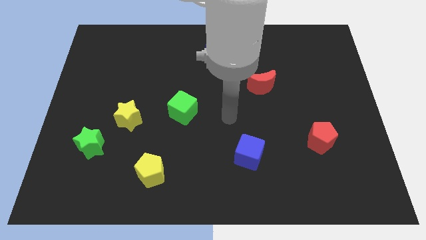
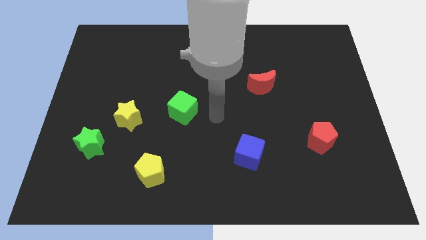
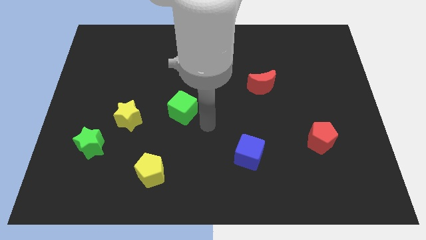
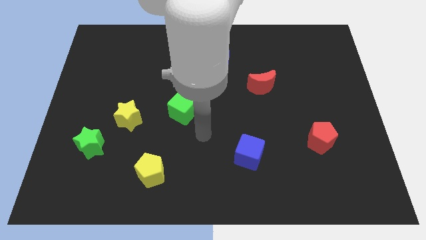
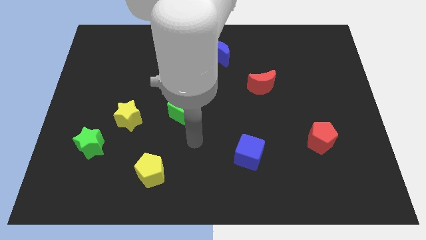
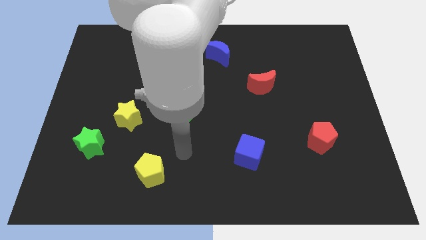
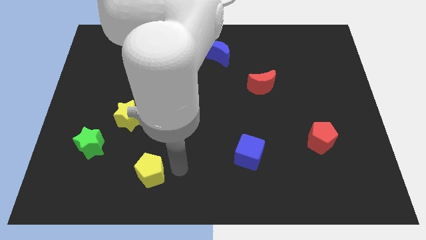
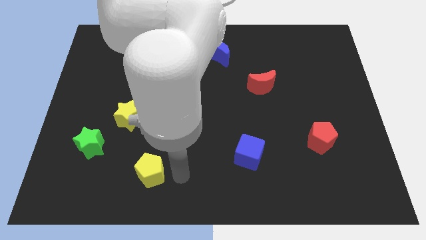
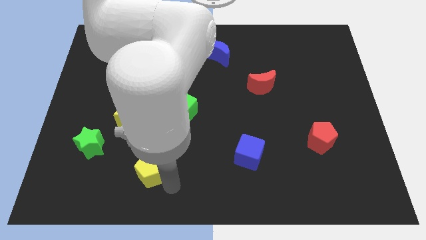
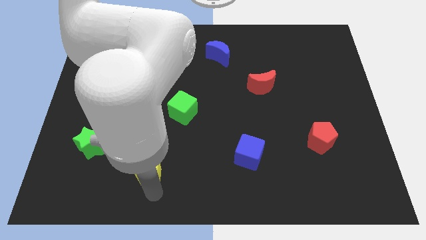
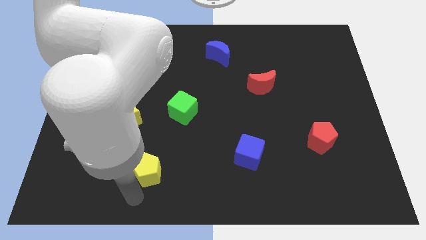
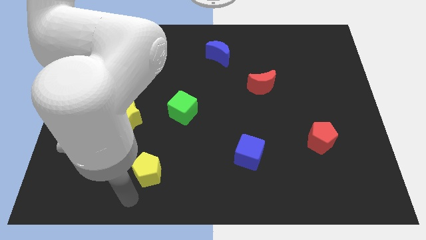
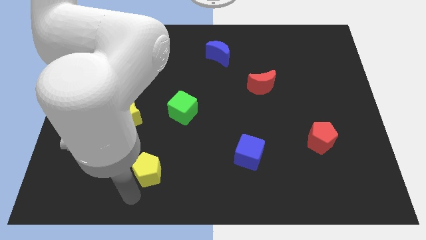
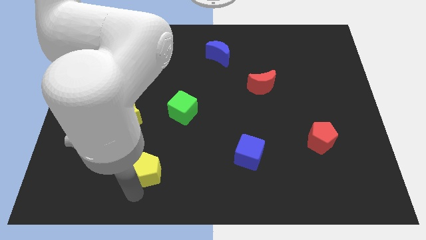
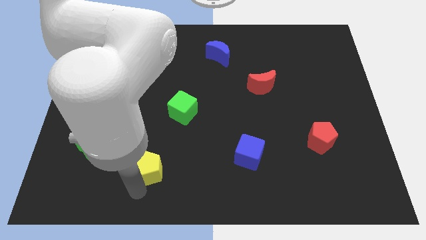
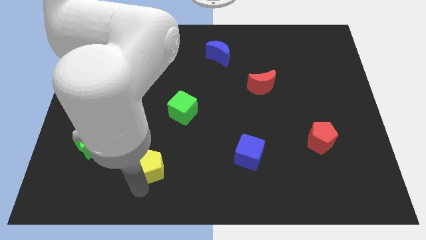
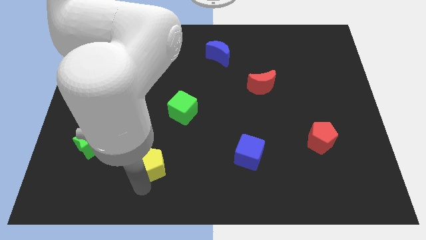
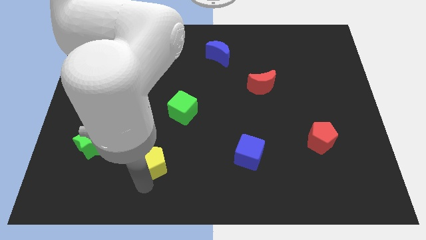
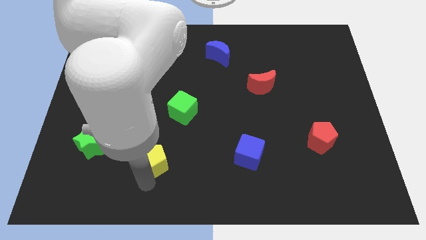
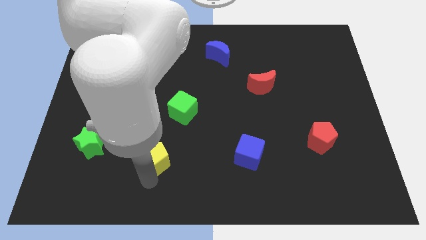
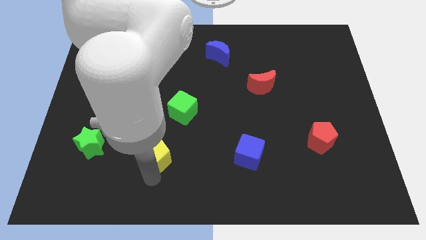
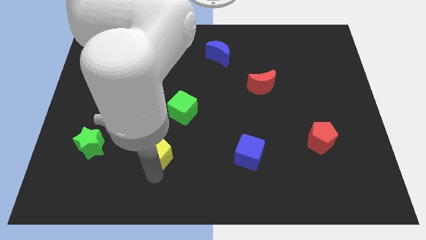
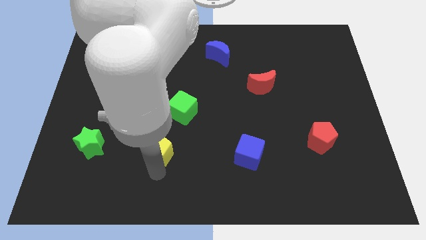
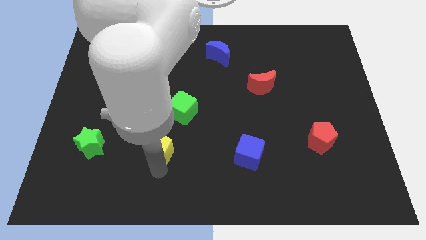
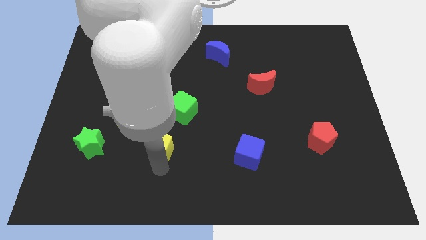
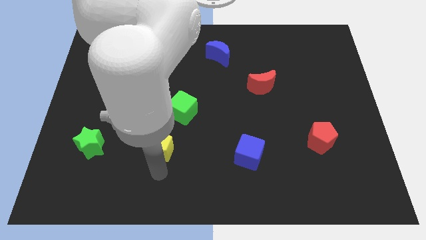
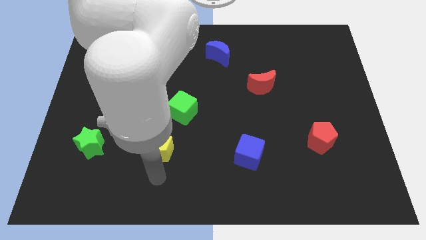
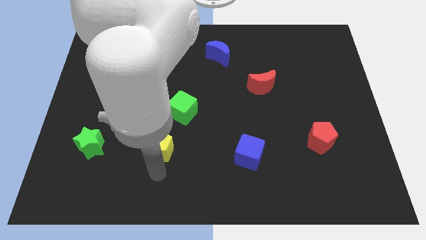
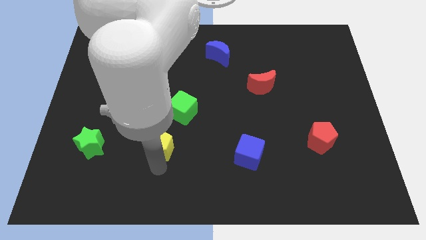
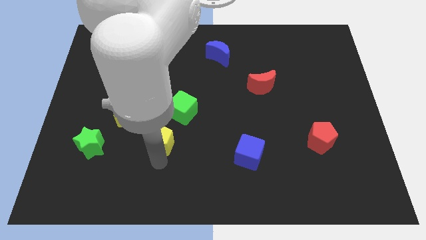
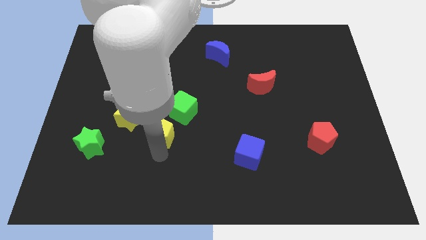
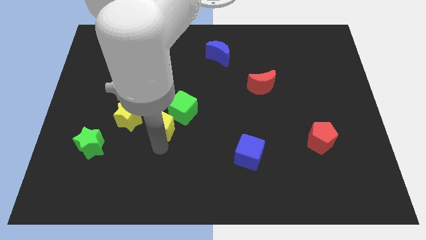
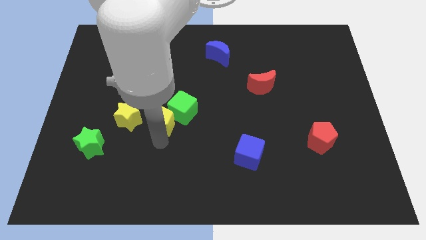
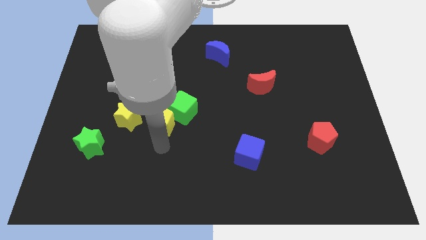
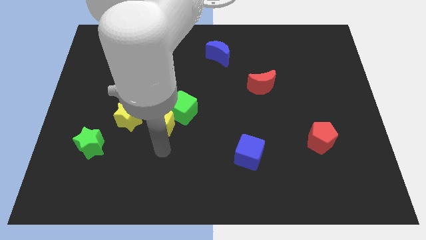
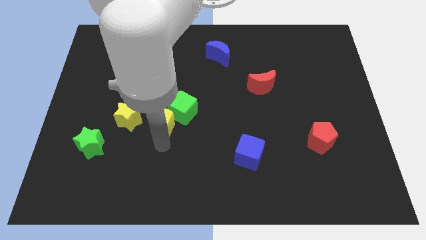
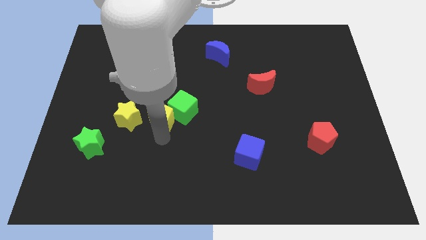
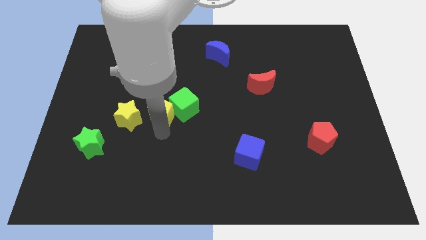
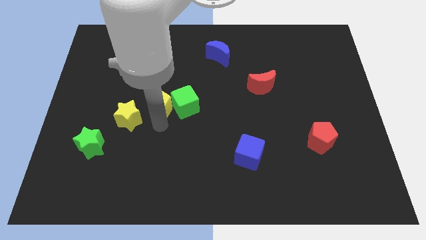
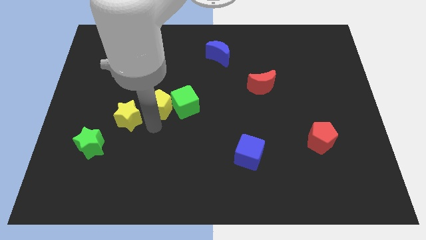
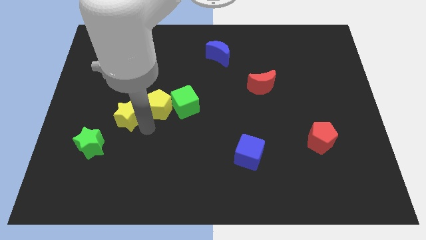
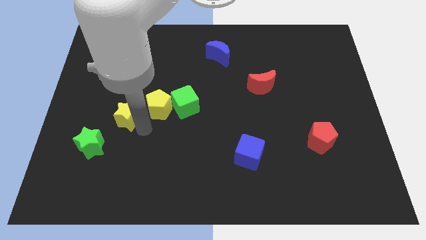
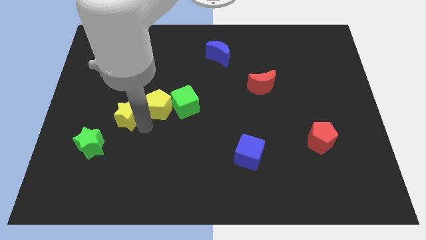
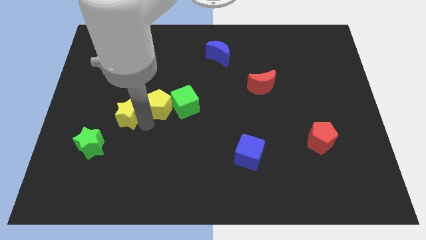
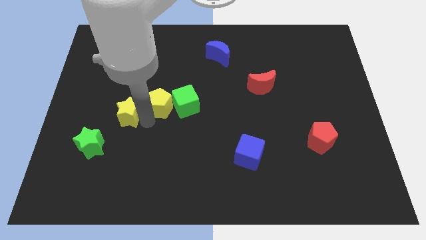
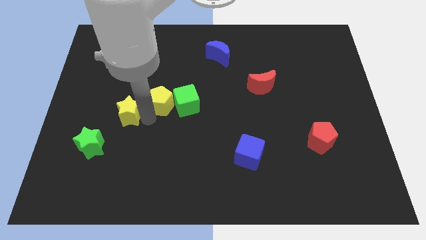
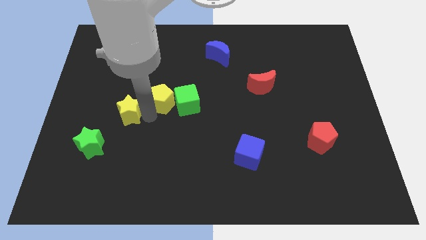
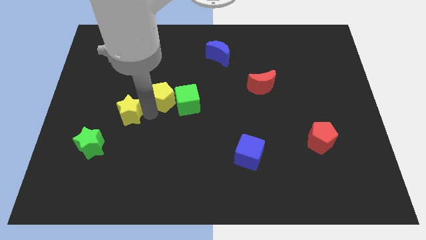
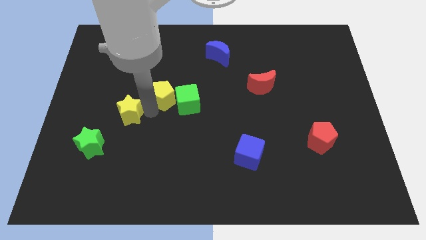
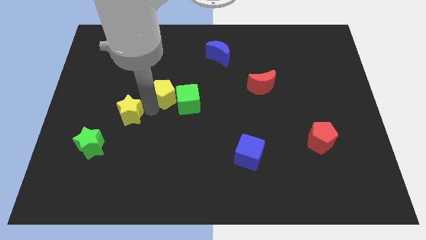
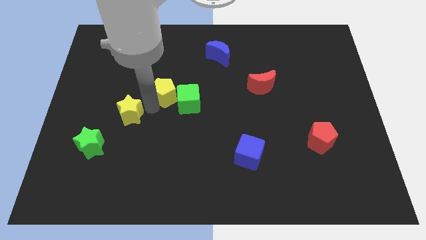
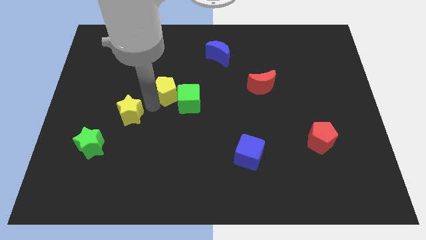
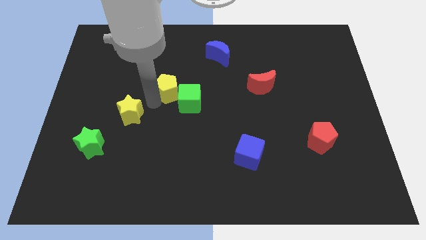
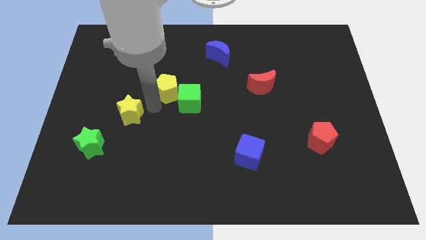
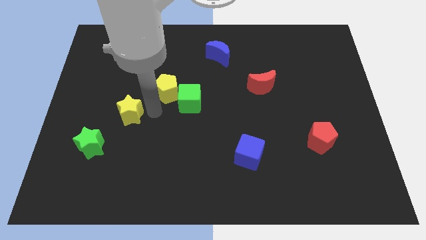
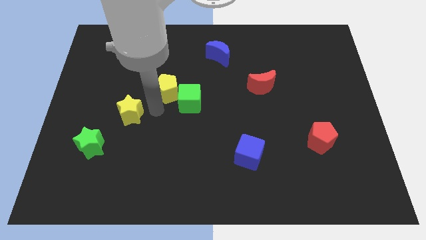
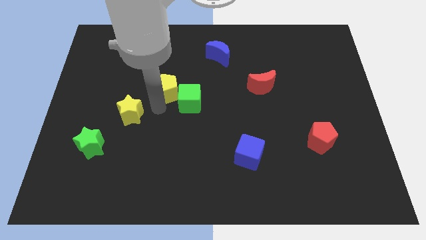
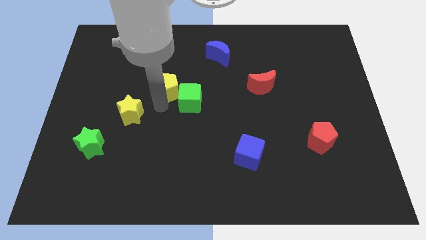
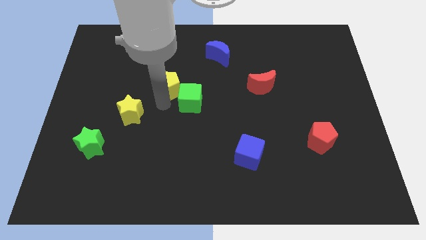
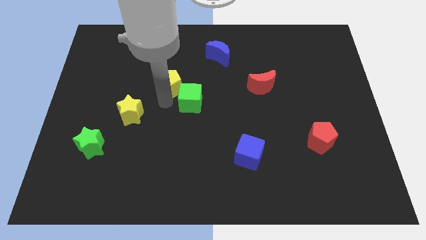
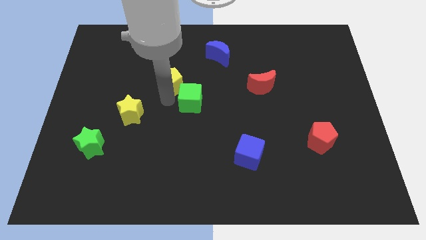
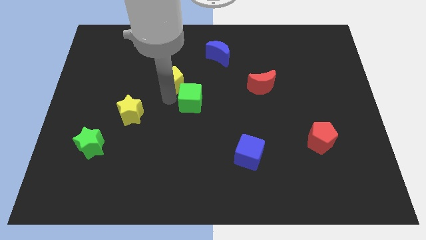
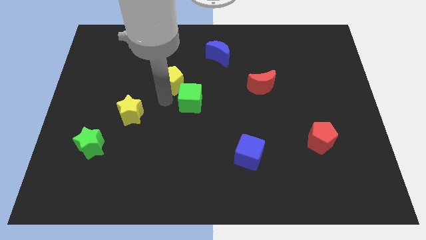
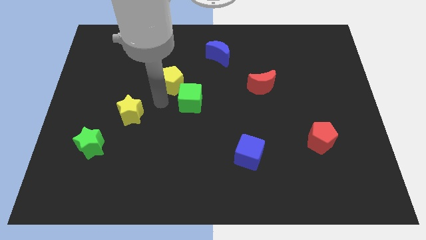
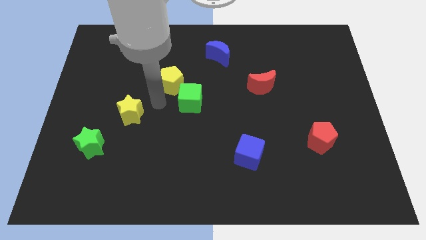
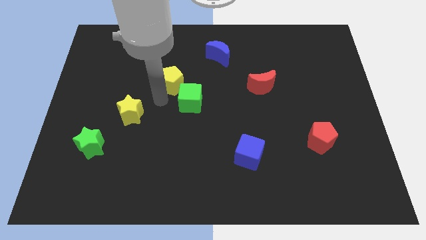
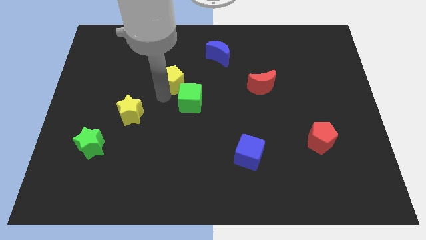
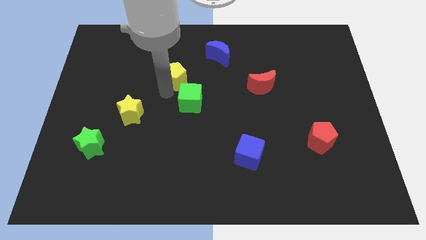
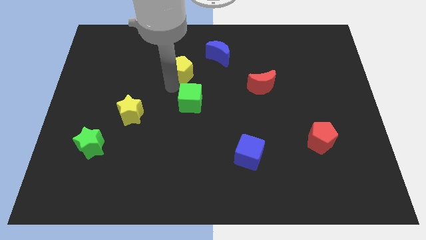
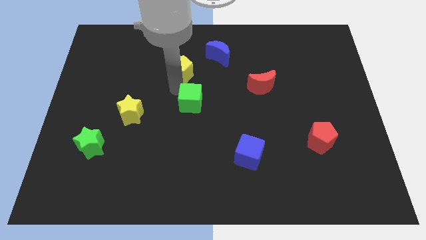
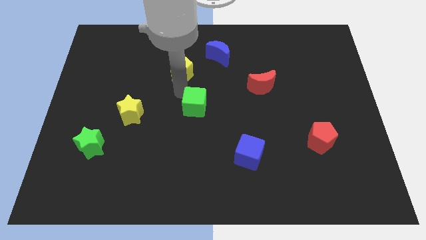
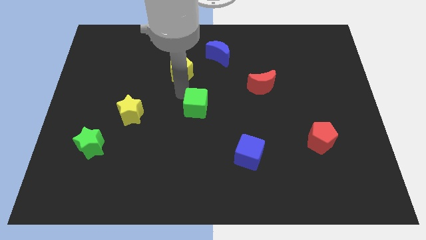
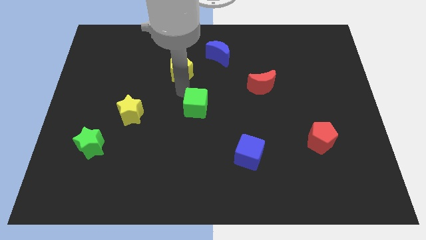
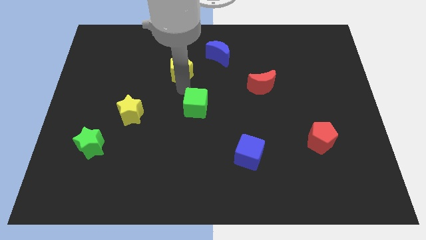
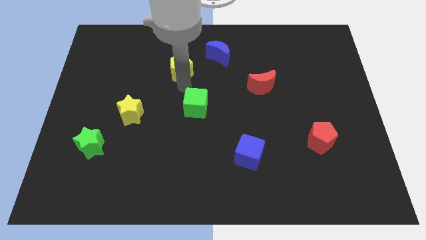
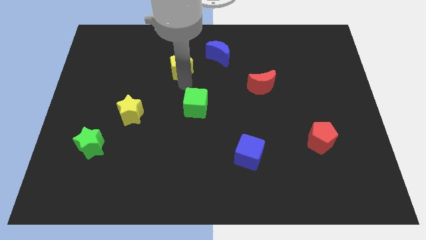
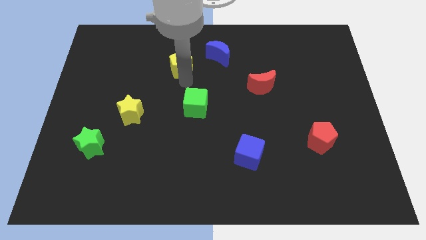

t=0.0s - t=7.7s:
slide the yellow pentagon just left of the blue moon
